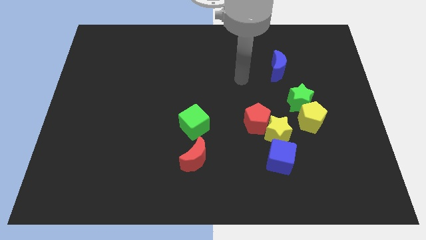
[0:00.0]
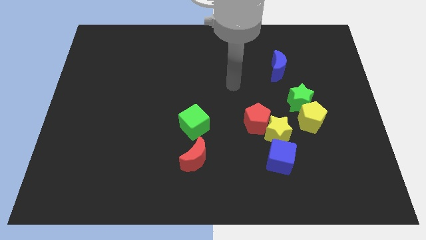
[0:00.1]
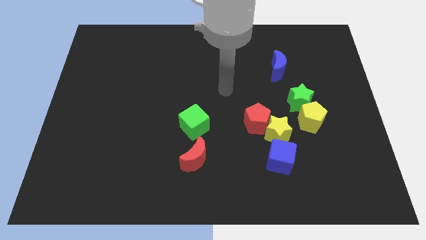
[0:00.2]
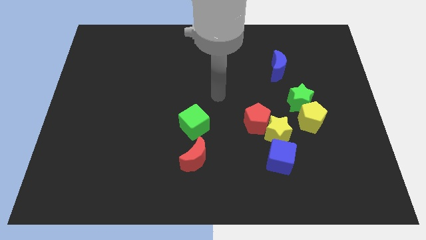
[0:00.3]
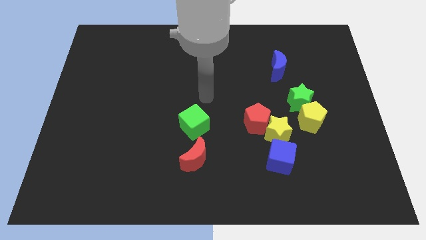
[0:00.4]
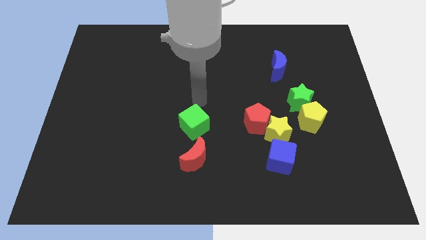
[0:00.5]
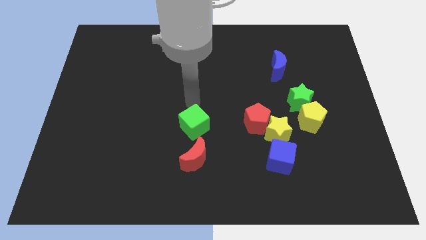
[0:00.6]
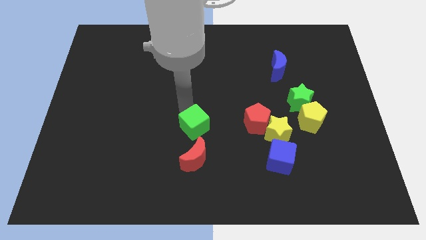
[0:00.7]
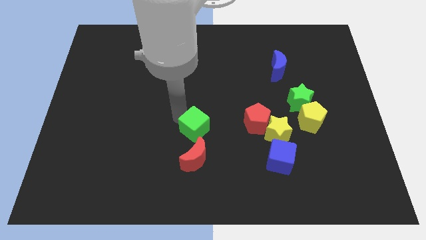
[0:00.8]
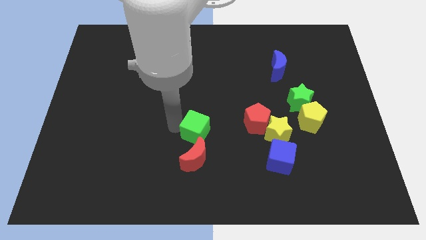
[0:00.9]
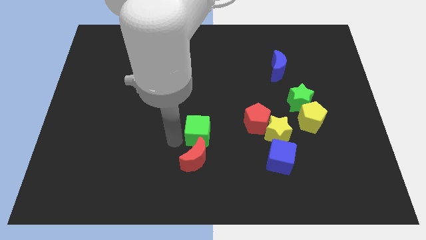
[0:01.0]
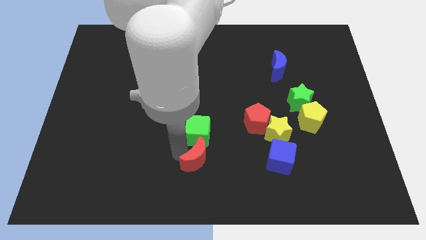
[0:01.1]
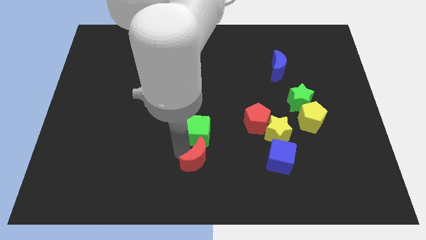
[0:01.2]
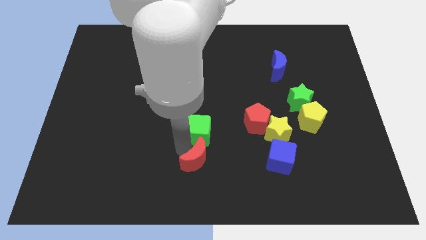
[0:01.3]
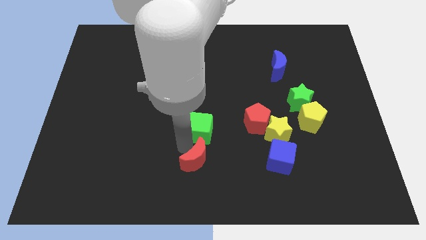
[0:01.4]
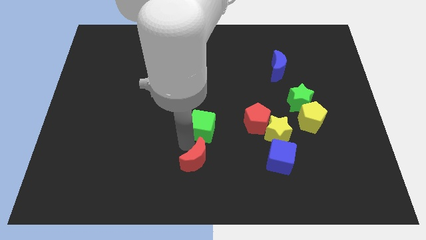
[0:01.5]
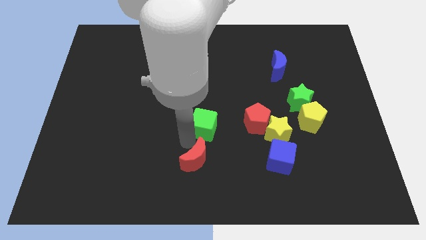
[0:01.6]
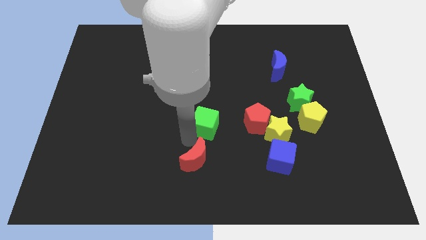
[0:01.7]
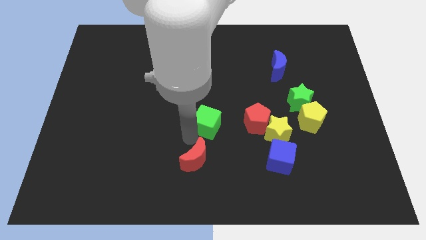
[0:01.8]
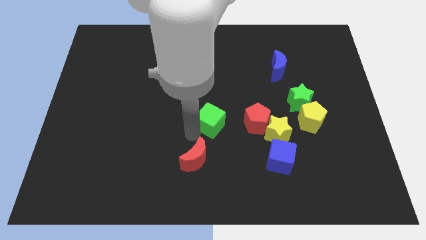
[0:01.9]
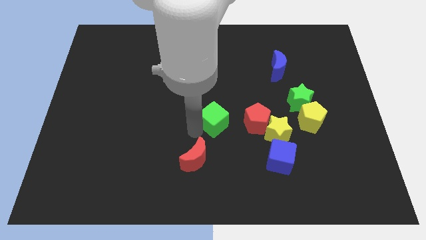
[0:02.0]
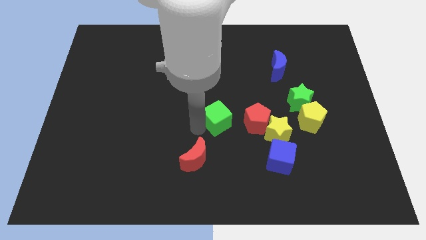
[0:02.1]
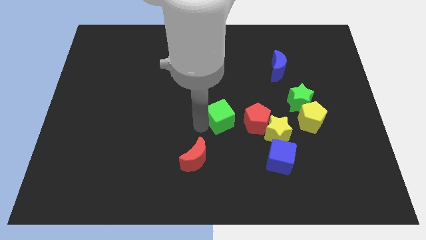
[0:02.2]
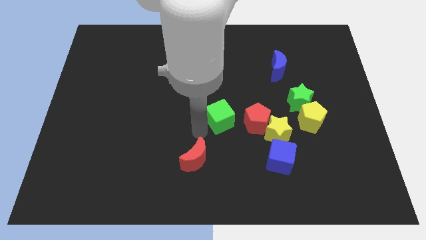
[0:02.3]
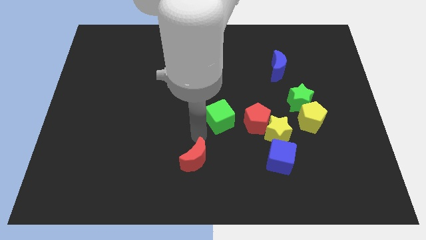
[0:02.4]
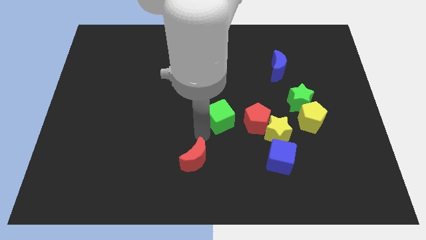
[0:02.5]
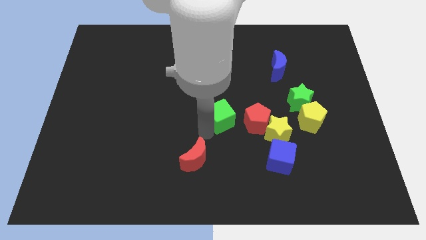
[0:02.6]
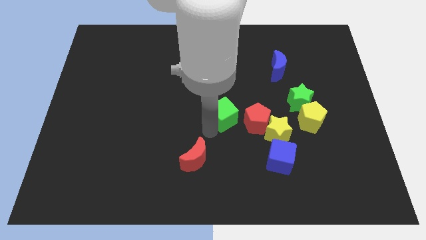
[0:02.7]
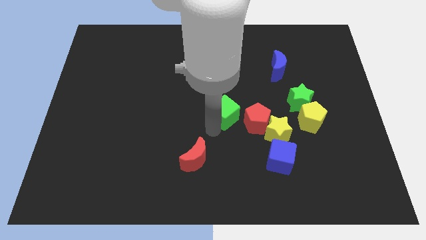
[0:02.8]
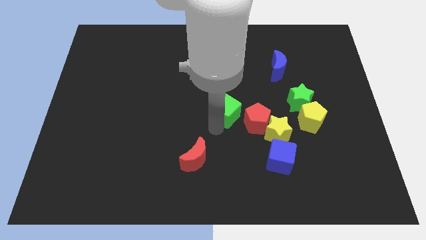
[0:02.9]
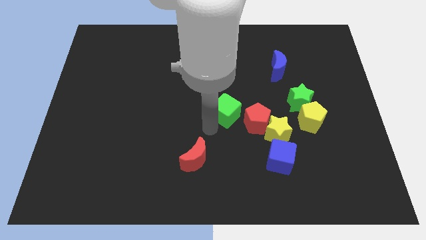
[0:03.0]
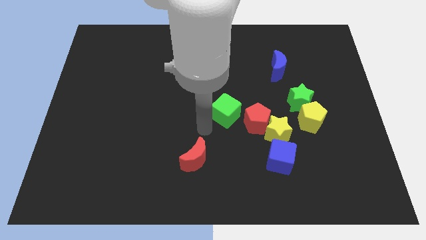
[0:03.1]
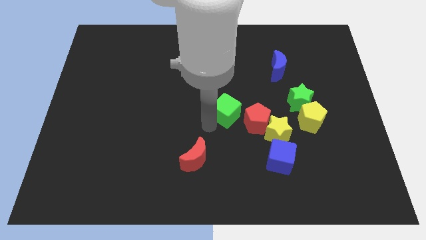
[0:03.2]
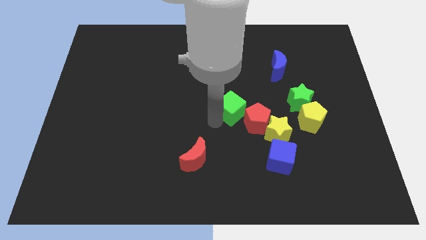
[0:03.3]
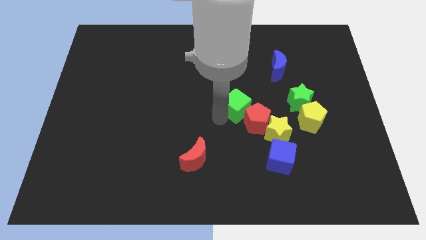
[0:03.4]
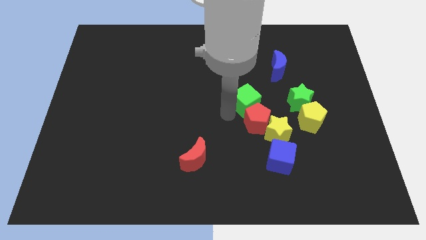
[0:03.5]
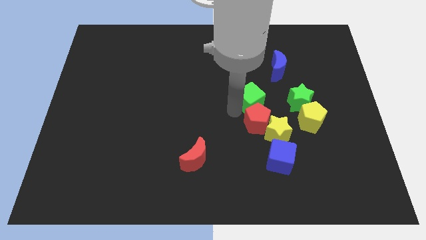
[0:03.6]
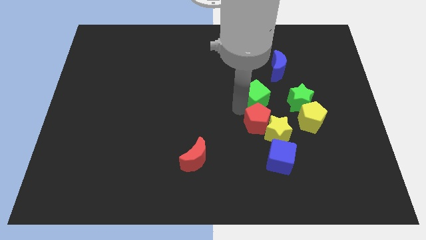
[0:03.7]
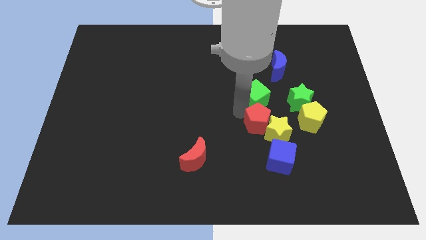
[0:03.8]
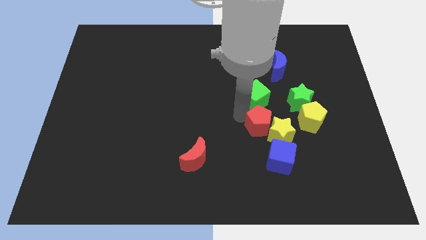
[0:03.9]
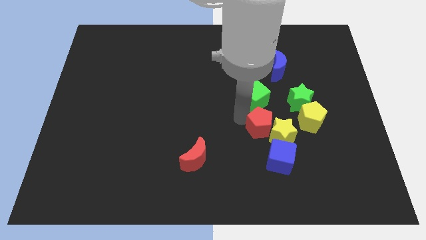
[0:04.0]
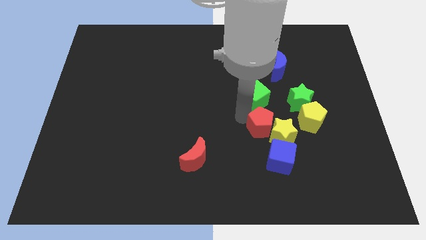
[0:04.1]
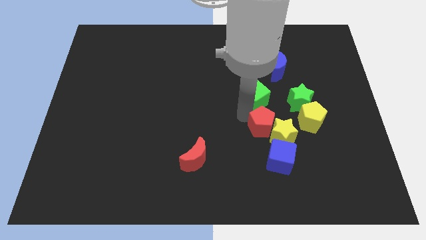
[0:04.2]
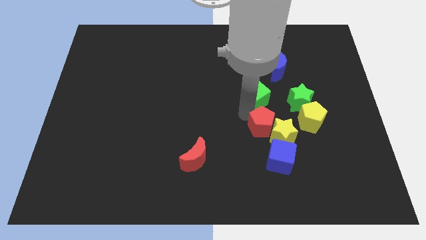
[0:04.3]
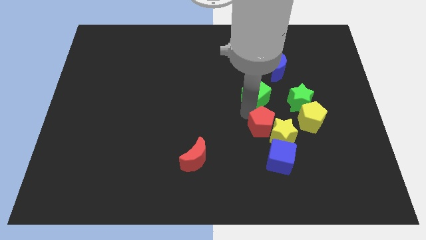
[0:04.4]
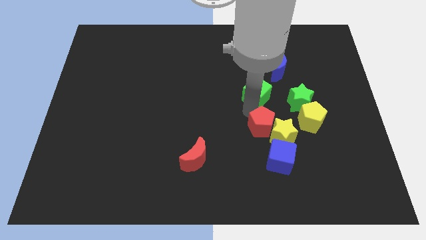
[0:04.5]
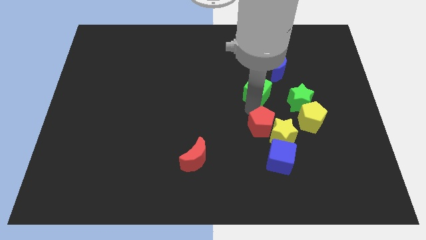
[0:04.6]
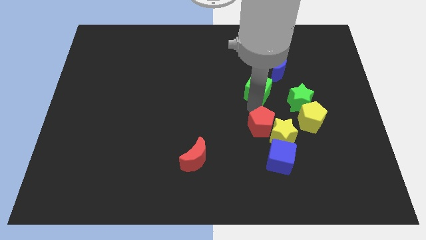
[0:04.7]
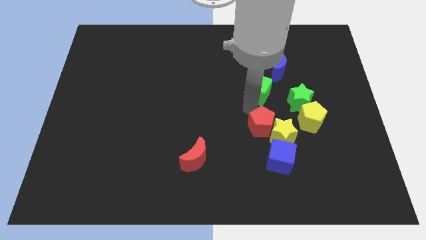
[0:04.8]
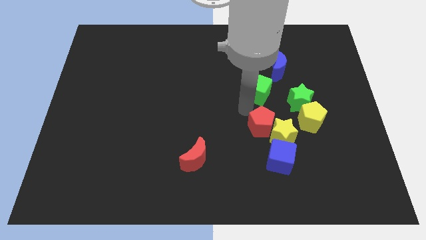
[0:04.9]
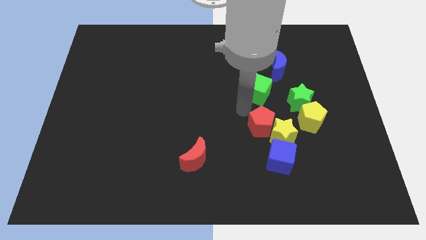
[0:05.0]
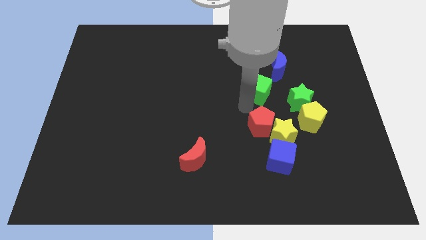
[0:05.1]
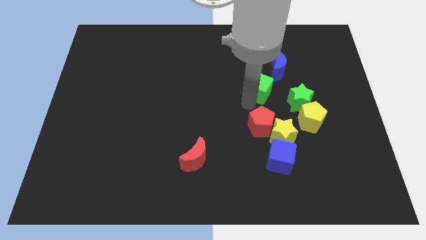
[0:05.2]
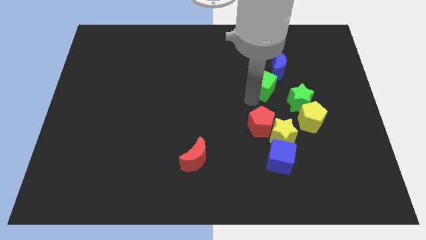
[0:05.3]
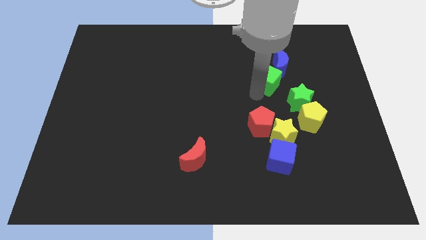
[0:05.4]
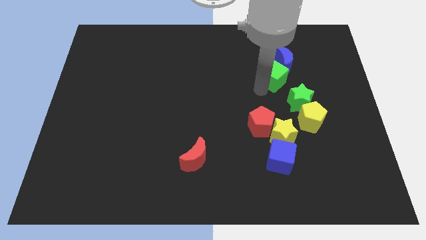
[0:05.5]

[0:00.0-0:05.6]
put the green cube to the blue moon

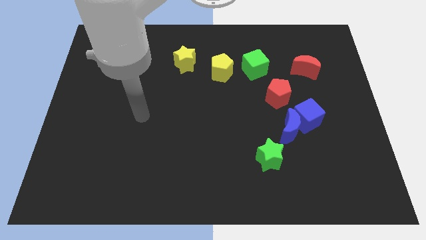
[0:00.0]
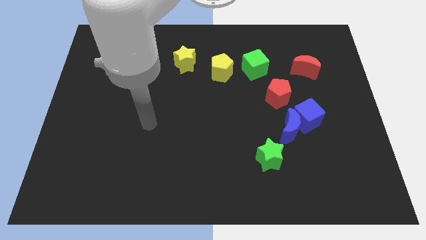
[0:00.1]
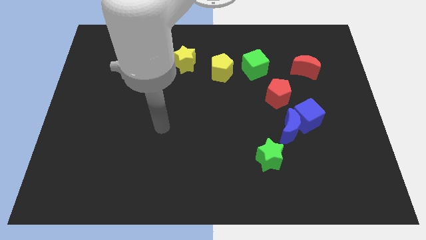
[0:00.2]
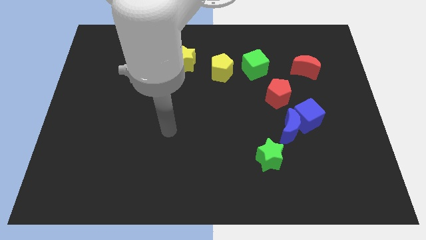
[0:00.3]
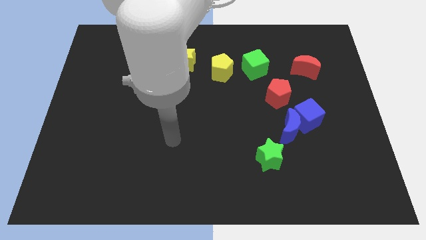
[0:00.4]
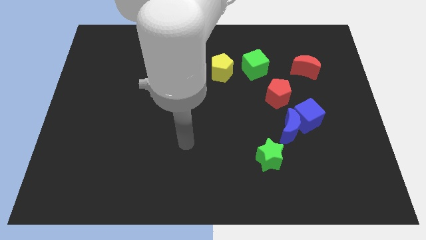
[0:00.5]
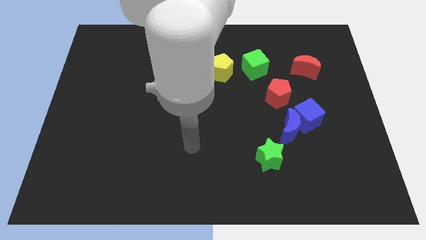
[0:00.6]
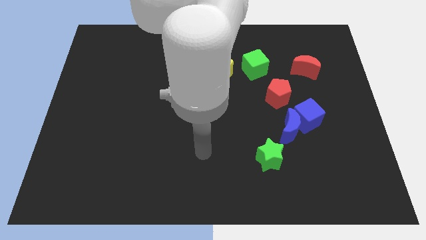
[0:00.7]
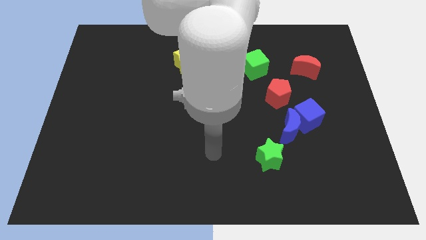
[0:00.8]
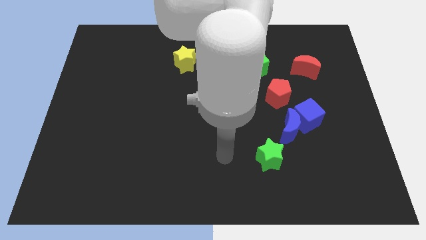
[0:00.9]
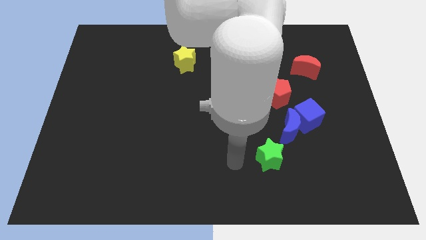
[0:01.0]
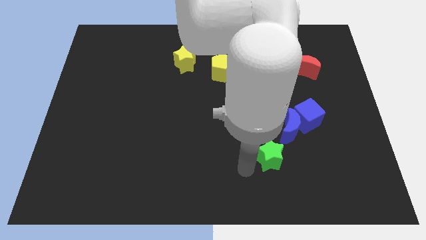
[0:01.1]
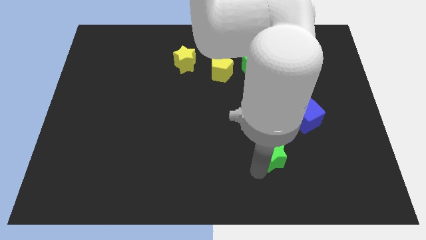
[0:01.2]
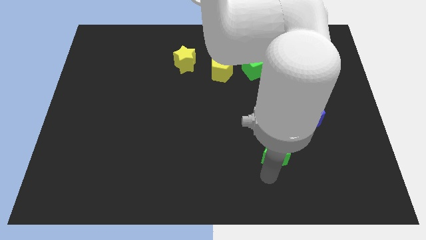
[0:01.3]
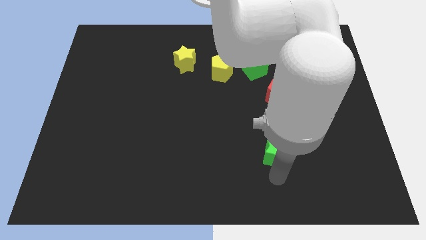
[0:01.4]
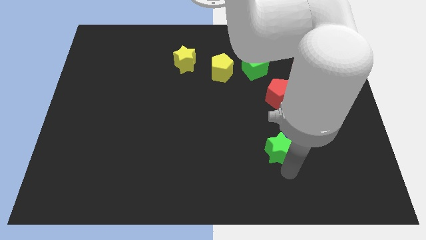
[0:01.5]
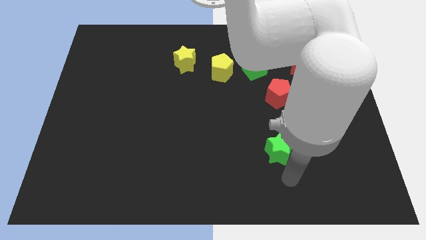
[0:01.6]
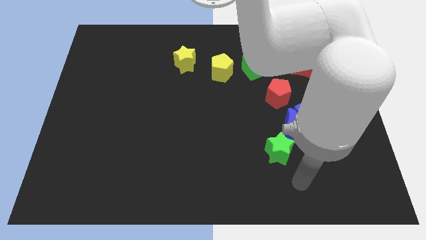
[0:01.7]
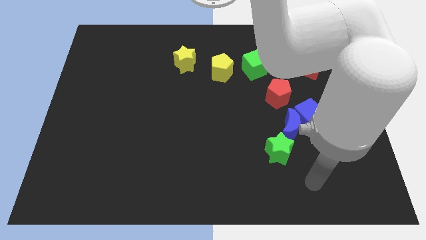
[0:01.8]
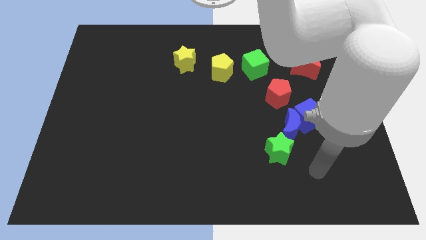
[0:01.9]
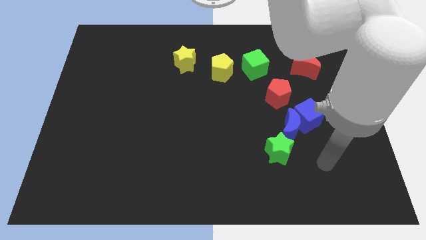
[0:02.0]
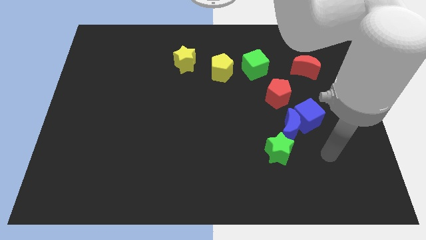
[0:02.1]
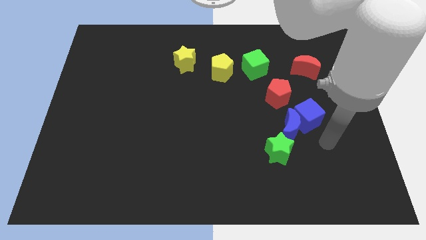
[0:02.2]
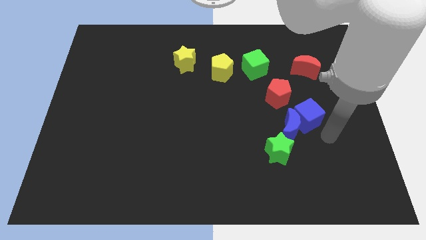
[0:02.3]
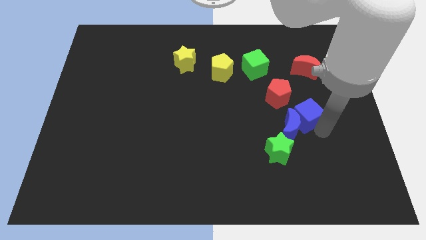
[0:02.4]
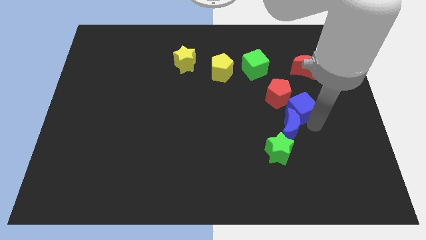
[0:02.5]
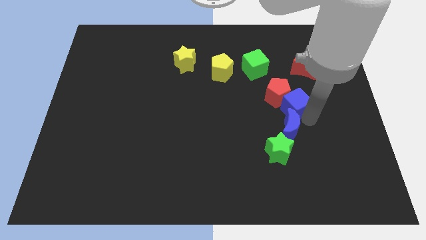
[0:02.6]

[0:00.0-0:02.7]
put the blue cube to the red pentagon
